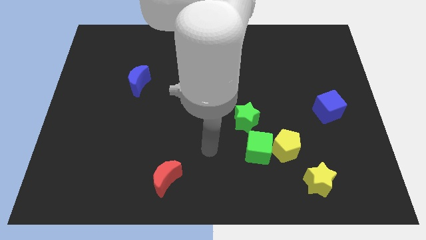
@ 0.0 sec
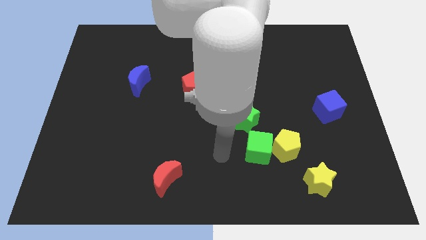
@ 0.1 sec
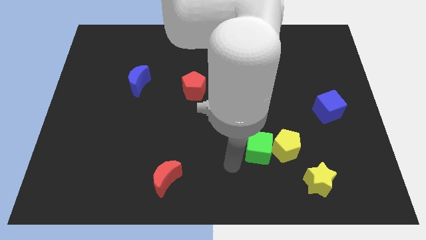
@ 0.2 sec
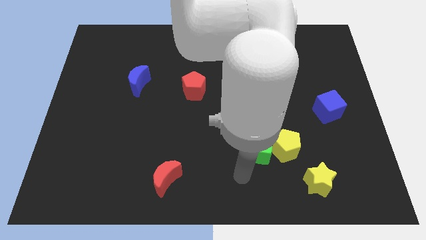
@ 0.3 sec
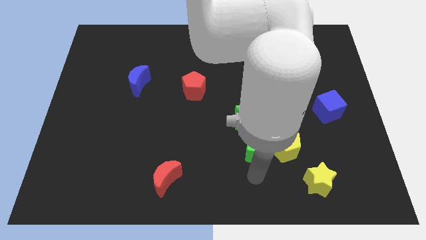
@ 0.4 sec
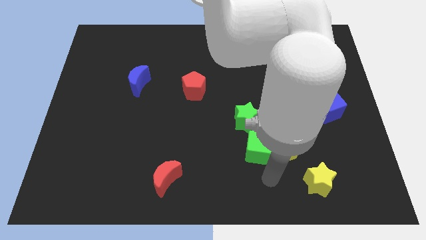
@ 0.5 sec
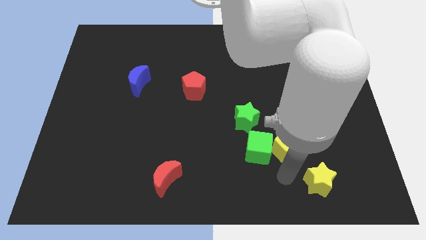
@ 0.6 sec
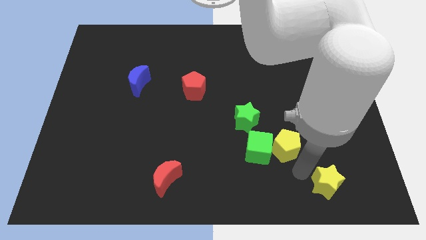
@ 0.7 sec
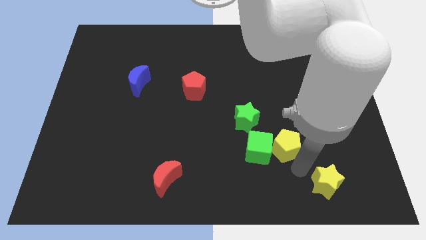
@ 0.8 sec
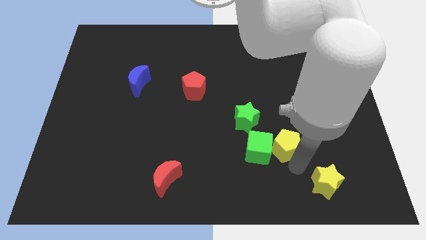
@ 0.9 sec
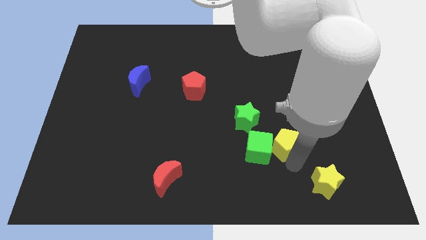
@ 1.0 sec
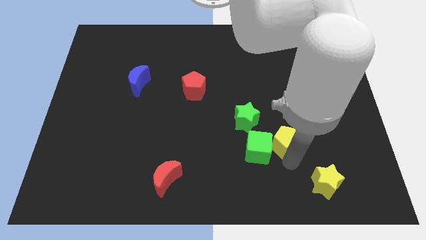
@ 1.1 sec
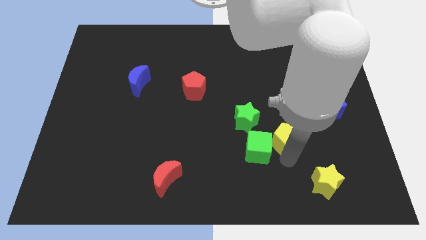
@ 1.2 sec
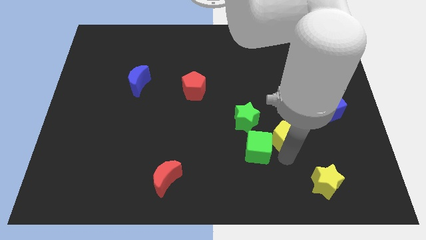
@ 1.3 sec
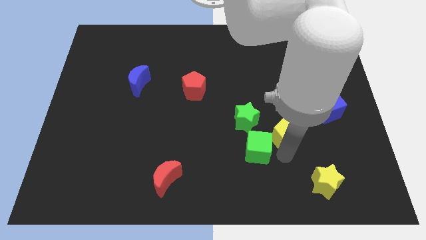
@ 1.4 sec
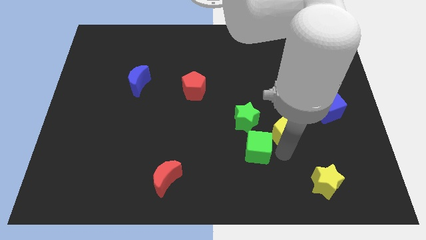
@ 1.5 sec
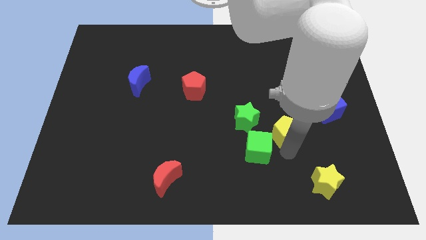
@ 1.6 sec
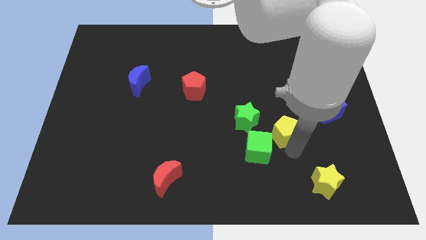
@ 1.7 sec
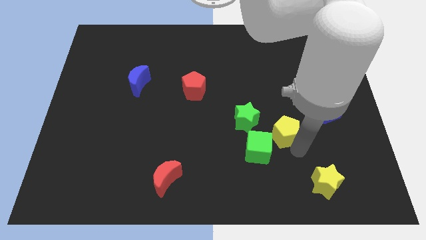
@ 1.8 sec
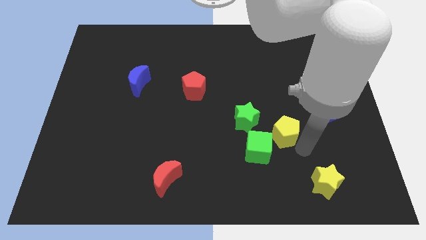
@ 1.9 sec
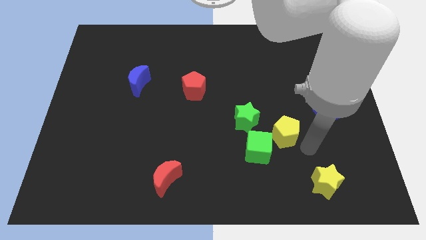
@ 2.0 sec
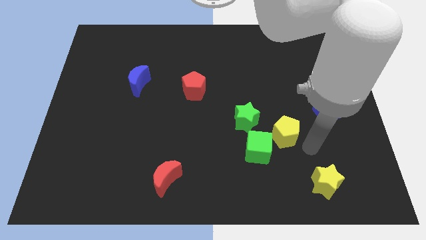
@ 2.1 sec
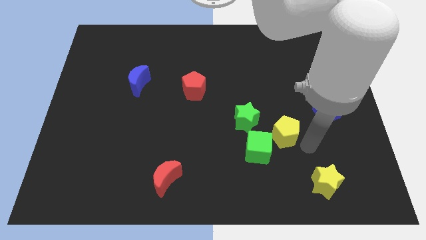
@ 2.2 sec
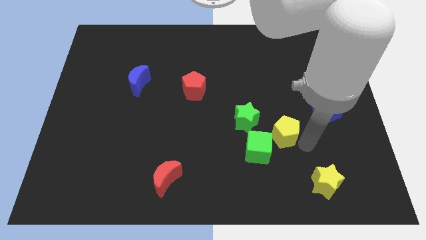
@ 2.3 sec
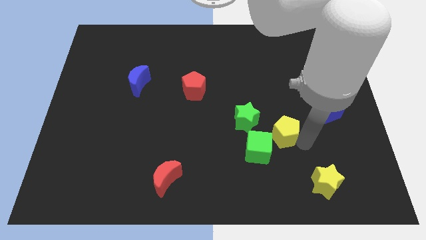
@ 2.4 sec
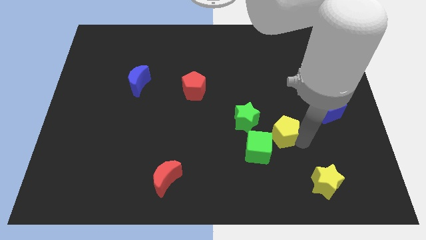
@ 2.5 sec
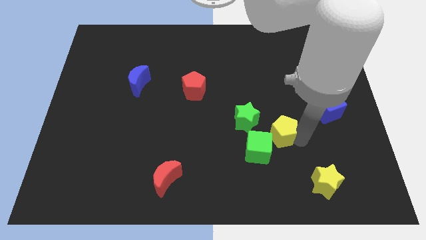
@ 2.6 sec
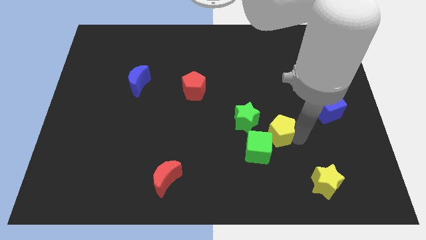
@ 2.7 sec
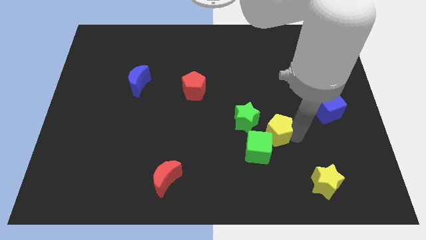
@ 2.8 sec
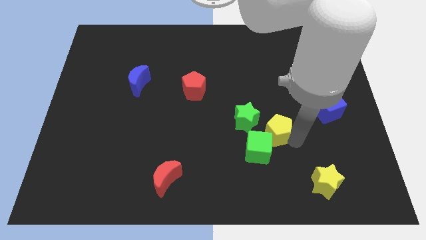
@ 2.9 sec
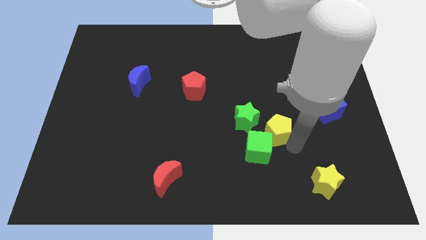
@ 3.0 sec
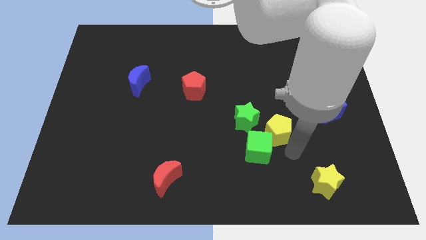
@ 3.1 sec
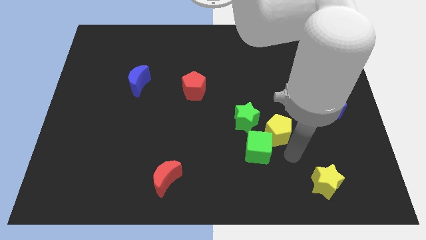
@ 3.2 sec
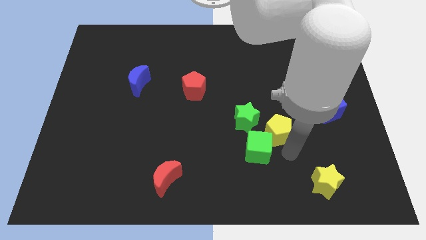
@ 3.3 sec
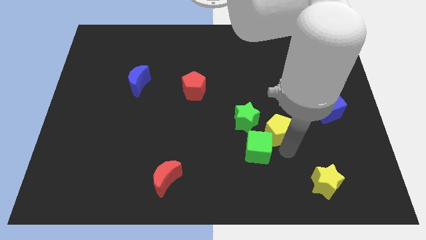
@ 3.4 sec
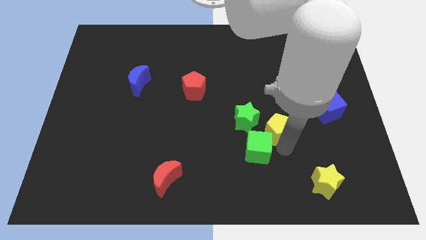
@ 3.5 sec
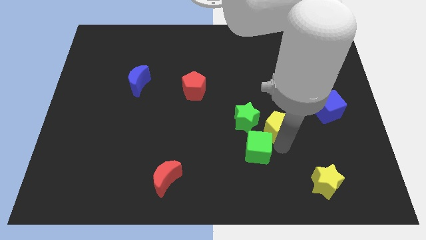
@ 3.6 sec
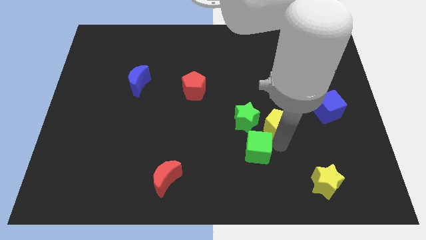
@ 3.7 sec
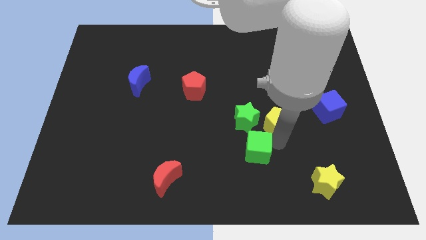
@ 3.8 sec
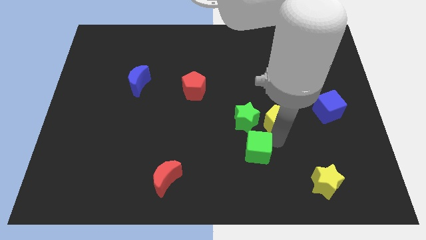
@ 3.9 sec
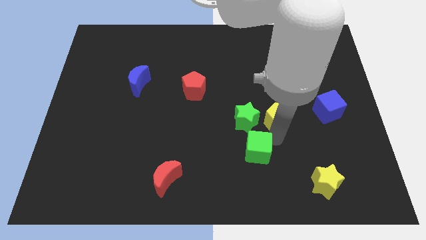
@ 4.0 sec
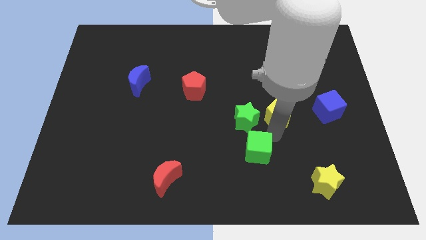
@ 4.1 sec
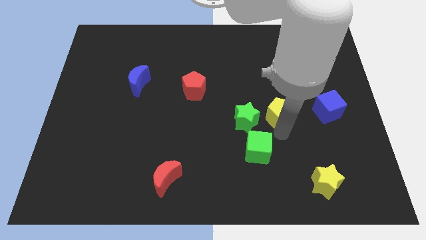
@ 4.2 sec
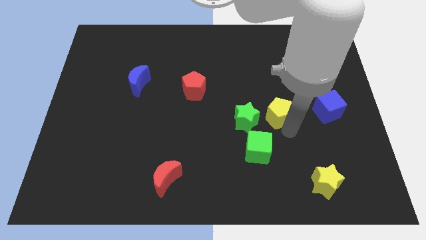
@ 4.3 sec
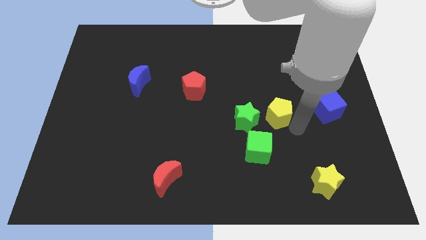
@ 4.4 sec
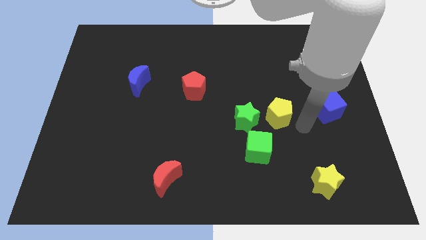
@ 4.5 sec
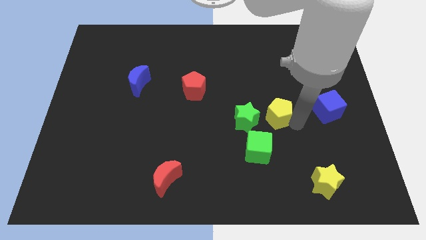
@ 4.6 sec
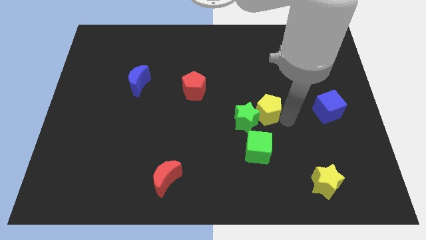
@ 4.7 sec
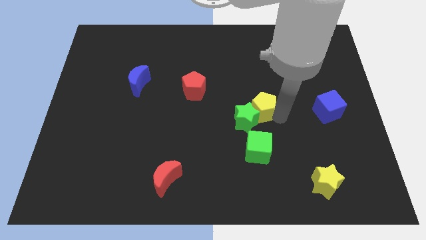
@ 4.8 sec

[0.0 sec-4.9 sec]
slide the yellow pentagon to the middle
